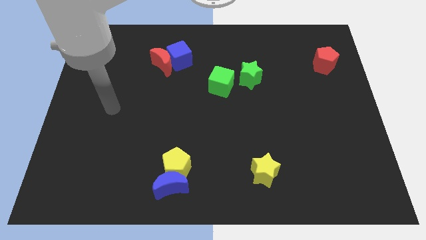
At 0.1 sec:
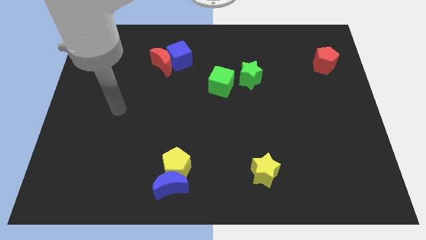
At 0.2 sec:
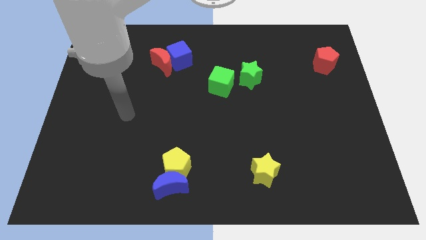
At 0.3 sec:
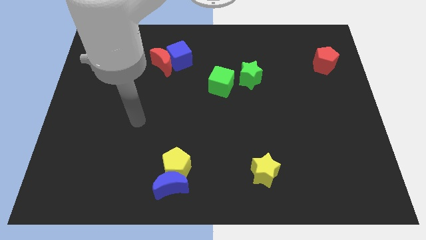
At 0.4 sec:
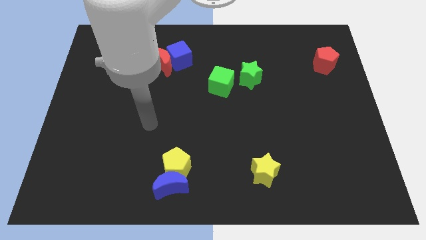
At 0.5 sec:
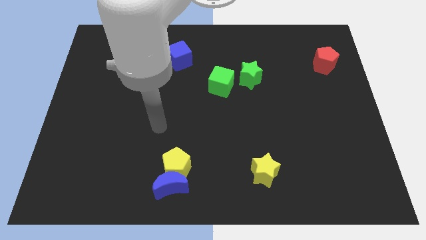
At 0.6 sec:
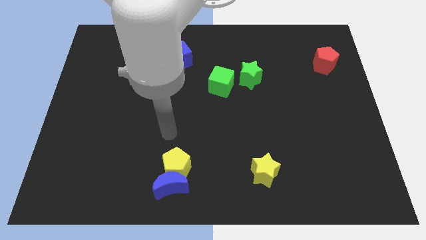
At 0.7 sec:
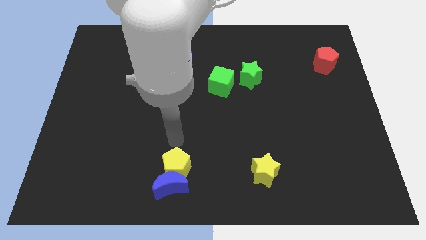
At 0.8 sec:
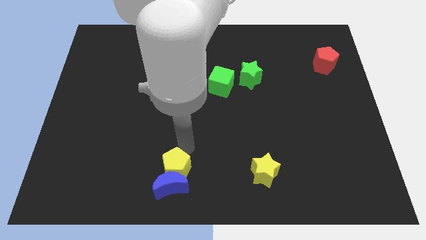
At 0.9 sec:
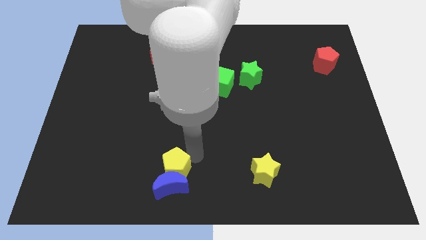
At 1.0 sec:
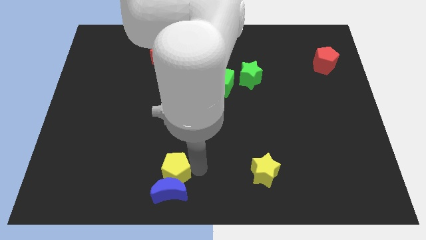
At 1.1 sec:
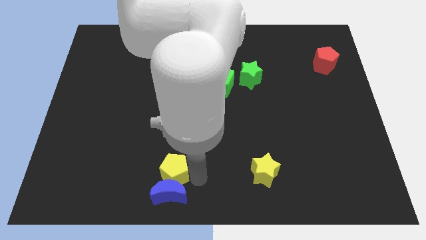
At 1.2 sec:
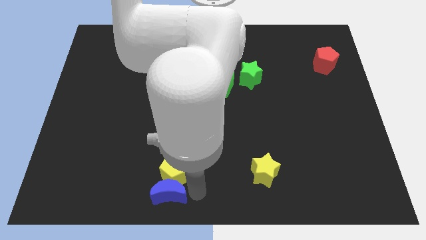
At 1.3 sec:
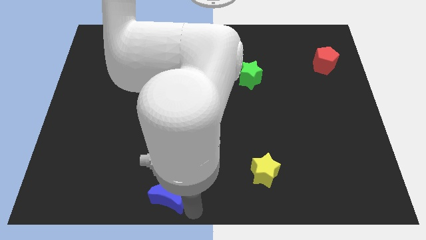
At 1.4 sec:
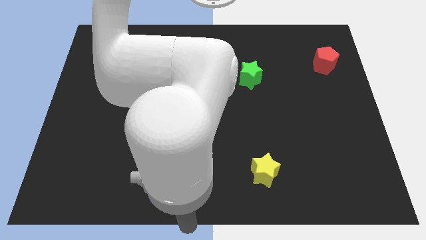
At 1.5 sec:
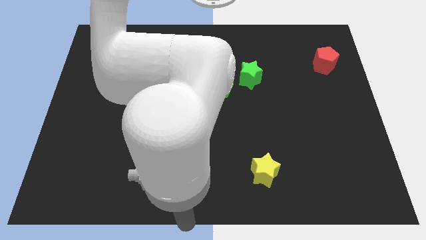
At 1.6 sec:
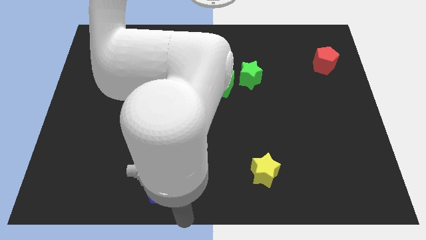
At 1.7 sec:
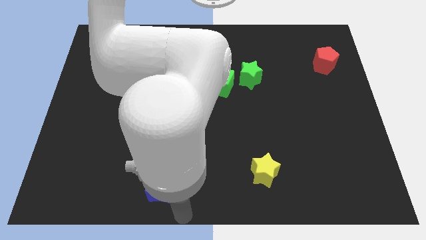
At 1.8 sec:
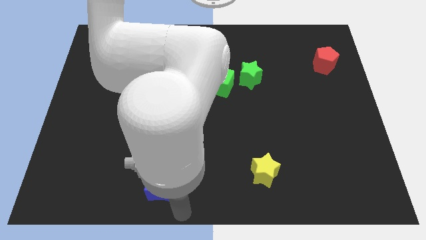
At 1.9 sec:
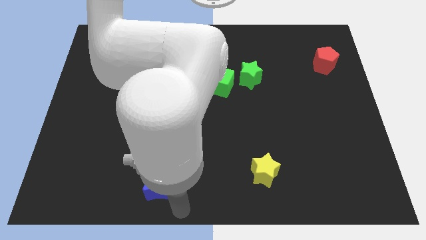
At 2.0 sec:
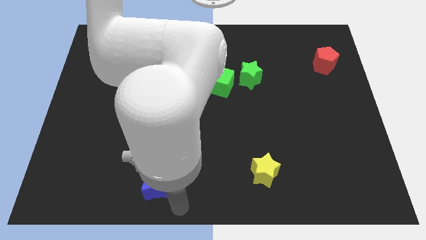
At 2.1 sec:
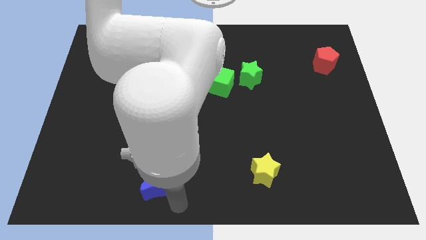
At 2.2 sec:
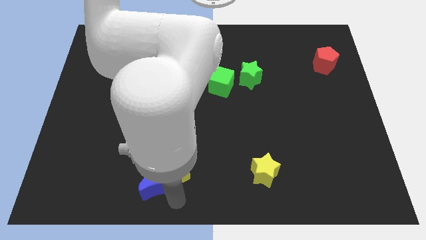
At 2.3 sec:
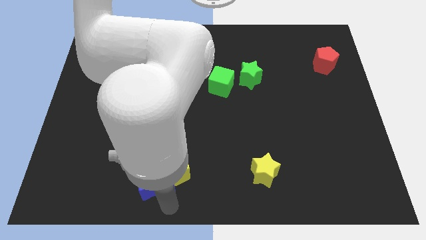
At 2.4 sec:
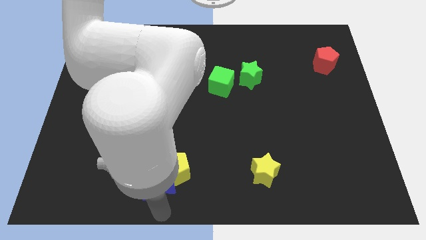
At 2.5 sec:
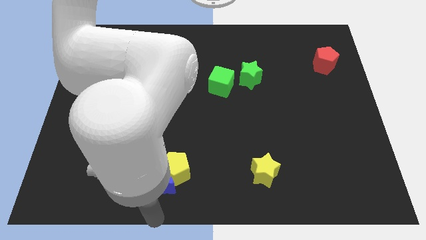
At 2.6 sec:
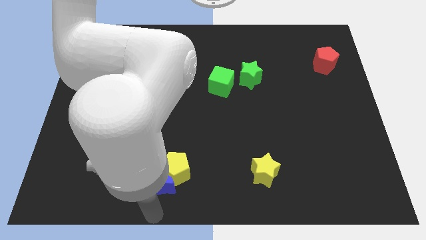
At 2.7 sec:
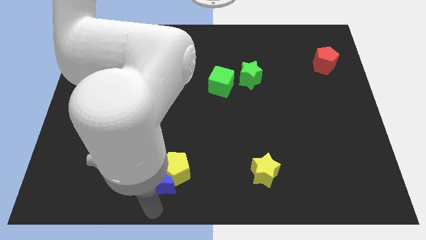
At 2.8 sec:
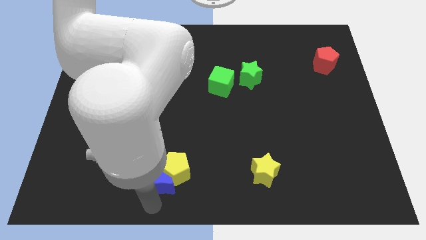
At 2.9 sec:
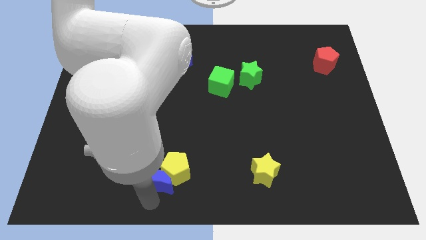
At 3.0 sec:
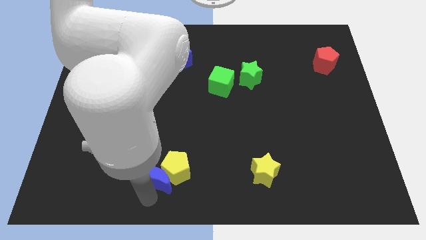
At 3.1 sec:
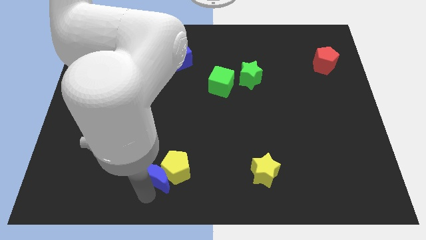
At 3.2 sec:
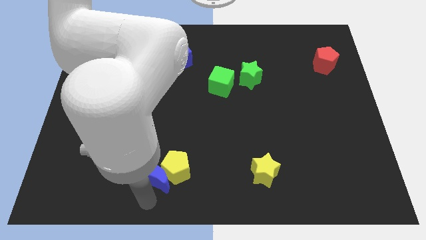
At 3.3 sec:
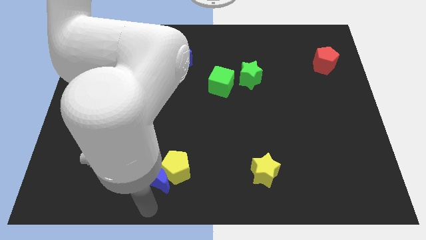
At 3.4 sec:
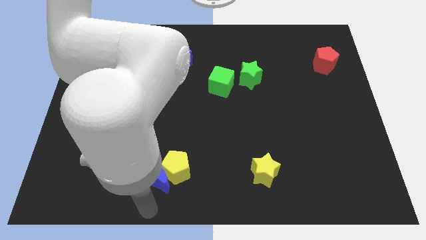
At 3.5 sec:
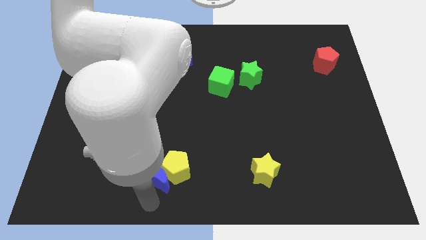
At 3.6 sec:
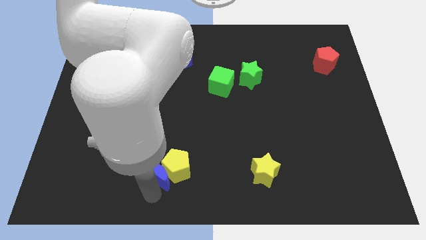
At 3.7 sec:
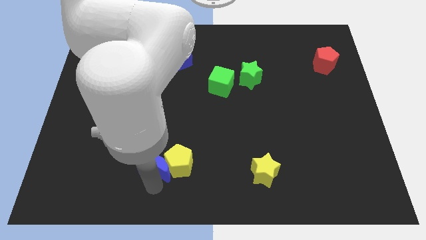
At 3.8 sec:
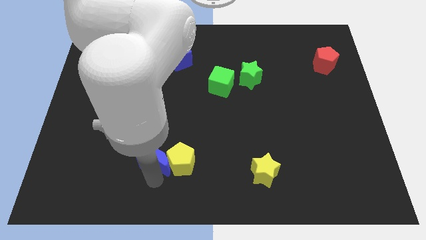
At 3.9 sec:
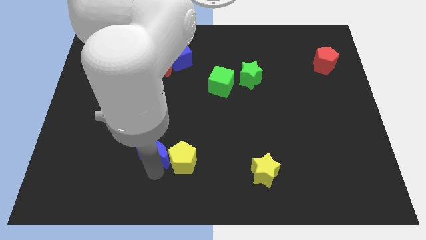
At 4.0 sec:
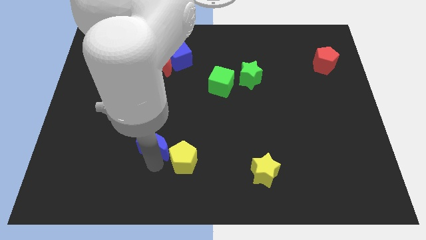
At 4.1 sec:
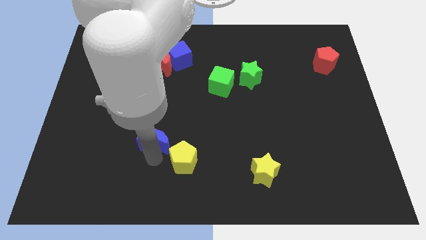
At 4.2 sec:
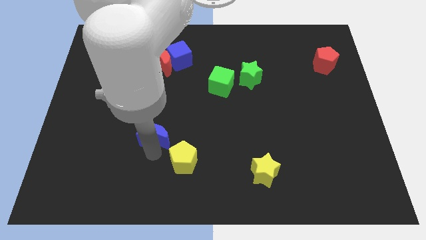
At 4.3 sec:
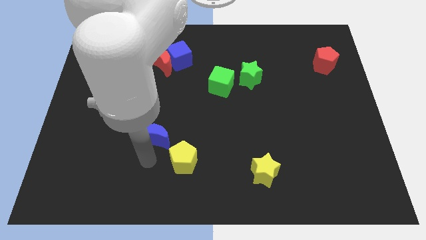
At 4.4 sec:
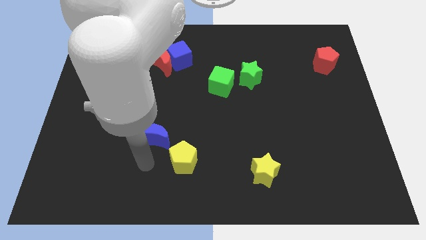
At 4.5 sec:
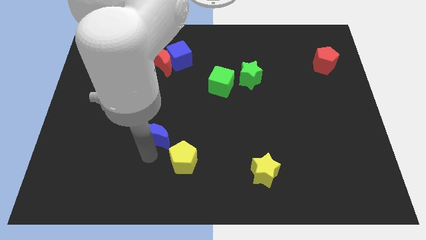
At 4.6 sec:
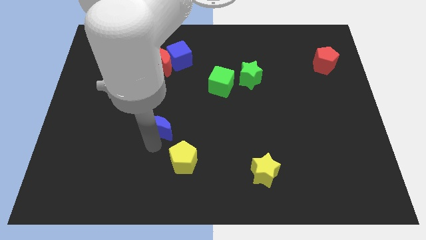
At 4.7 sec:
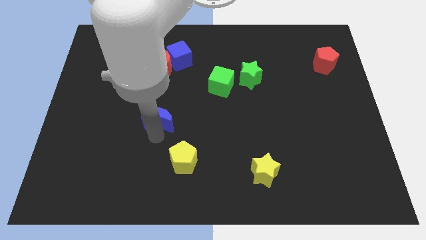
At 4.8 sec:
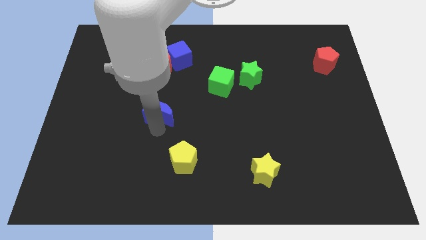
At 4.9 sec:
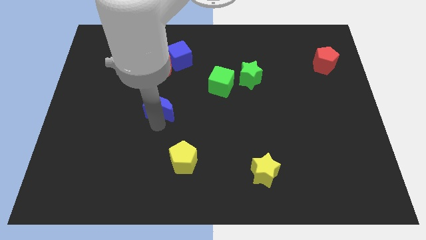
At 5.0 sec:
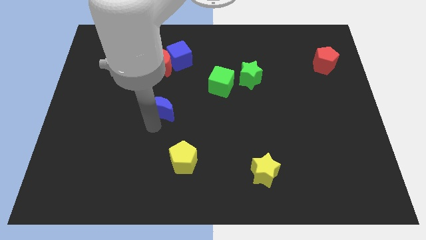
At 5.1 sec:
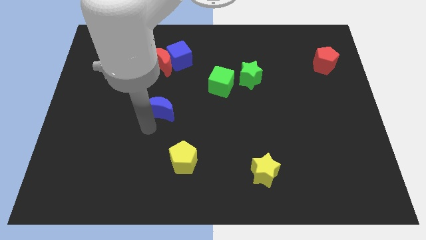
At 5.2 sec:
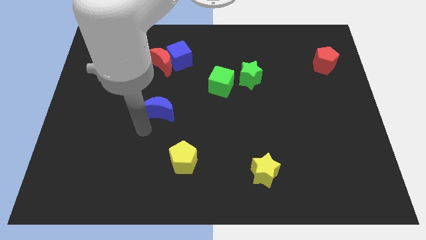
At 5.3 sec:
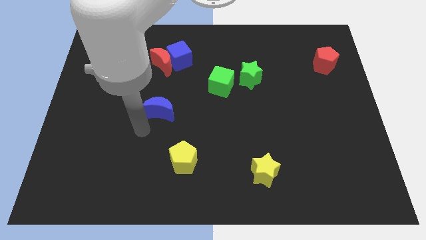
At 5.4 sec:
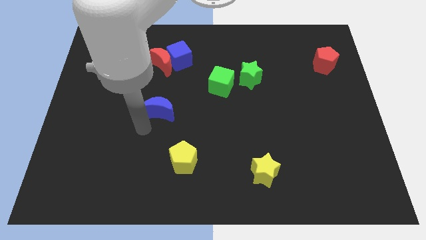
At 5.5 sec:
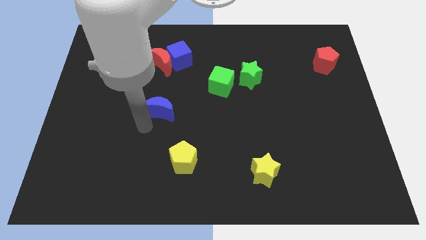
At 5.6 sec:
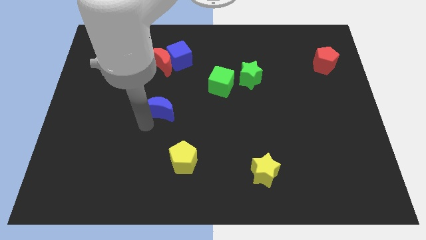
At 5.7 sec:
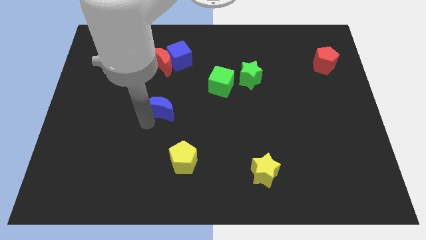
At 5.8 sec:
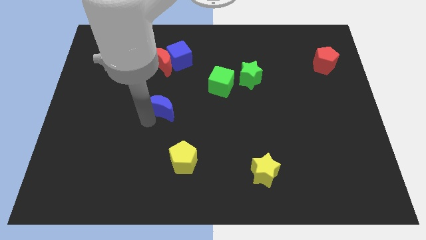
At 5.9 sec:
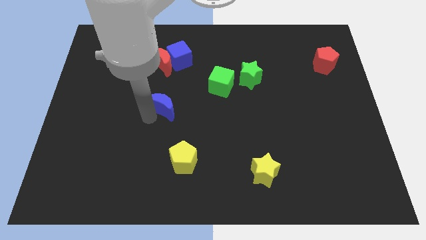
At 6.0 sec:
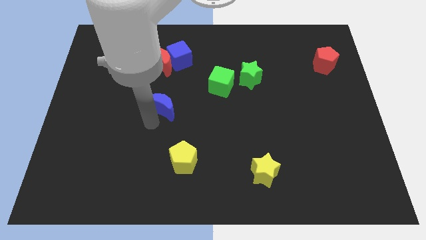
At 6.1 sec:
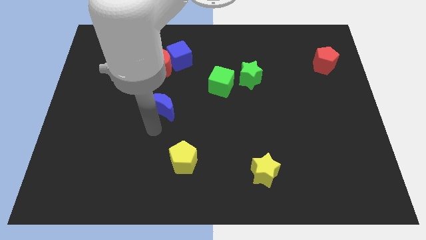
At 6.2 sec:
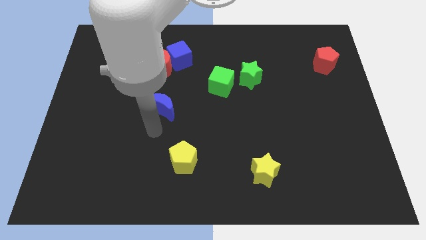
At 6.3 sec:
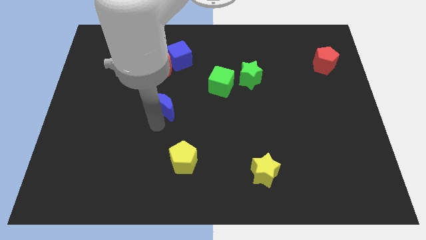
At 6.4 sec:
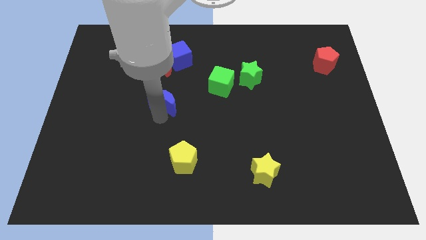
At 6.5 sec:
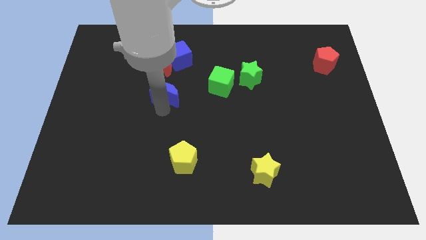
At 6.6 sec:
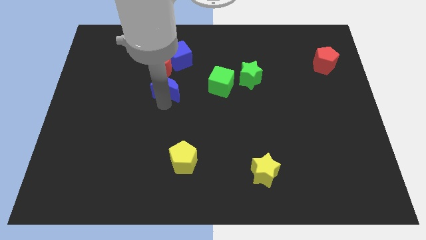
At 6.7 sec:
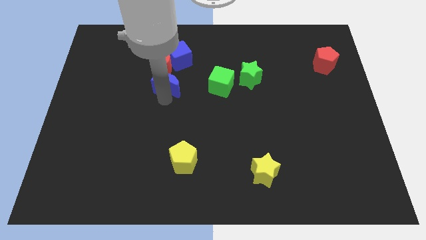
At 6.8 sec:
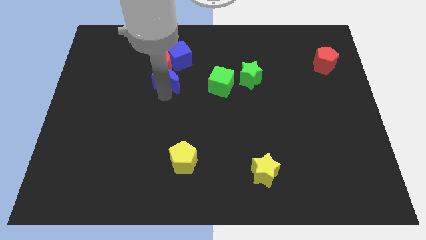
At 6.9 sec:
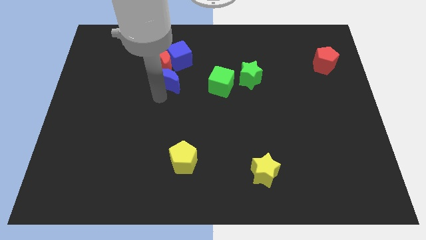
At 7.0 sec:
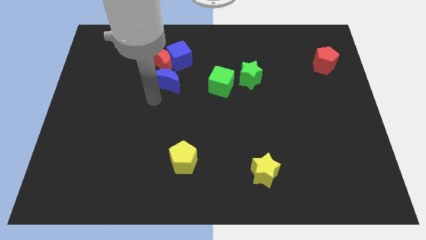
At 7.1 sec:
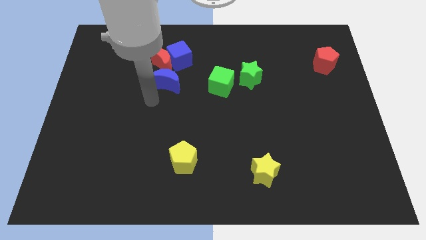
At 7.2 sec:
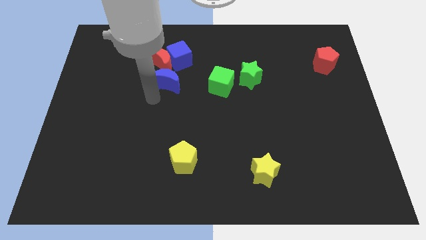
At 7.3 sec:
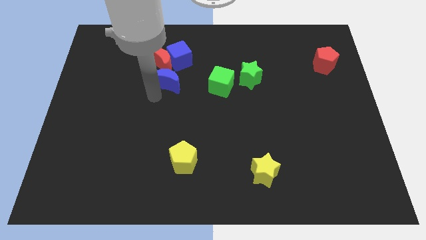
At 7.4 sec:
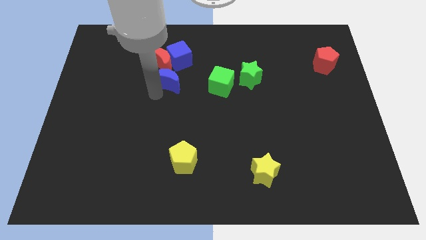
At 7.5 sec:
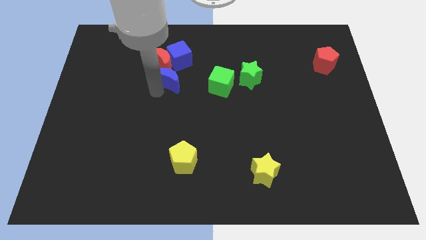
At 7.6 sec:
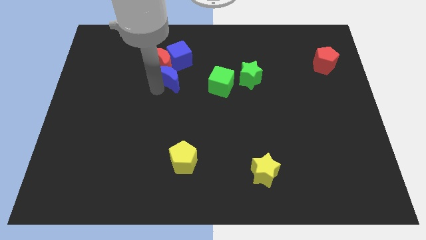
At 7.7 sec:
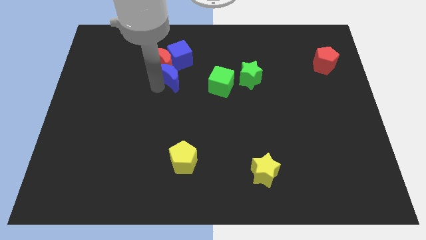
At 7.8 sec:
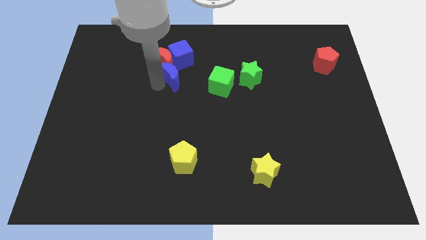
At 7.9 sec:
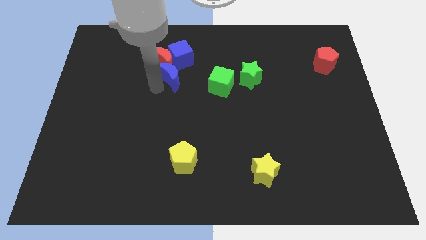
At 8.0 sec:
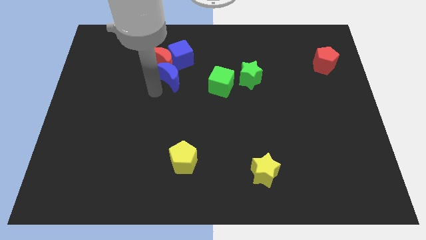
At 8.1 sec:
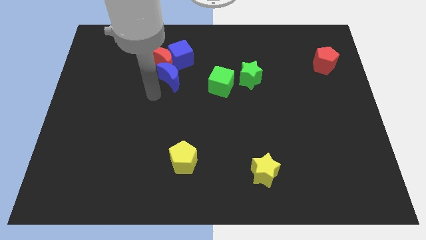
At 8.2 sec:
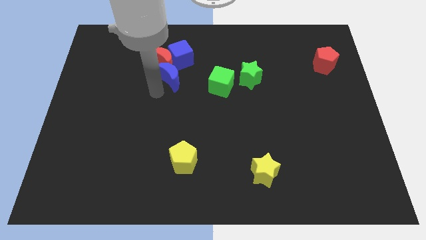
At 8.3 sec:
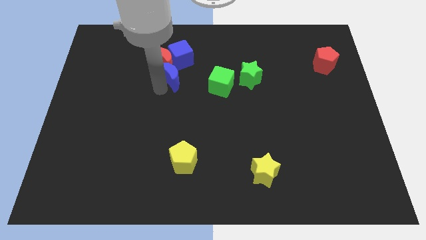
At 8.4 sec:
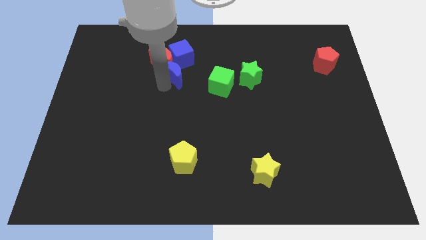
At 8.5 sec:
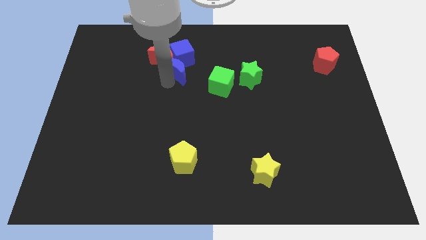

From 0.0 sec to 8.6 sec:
move the blue moon close to the blue cube
